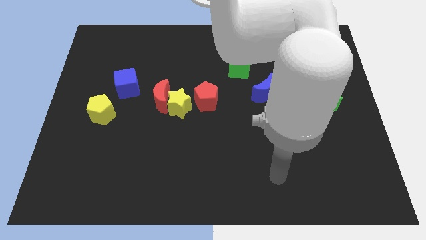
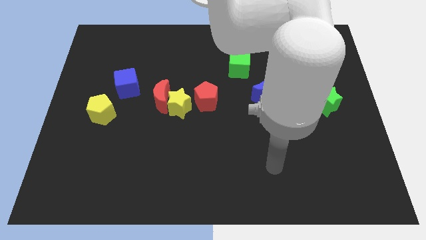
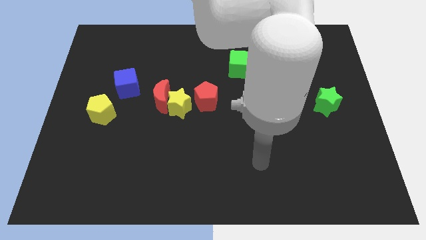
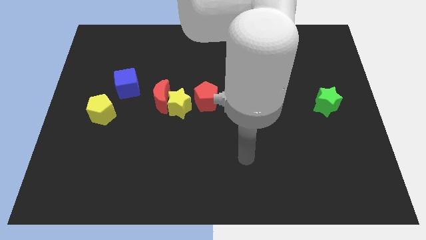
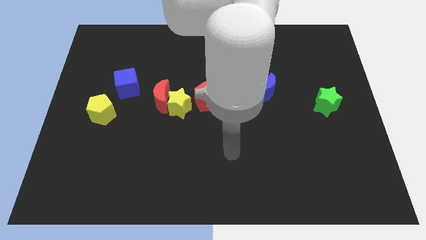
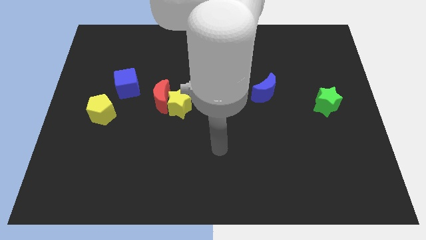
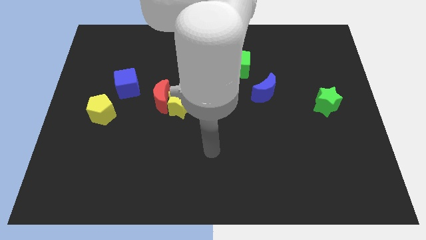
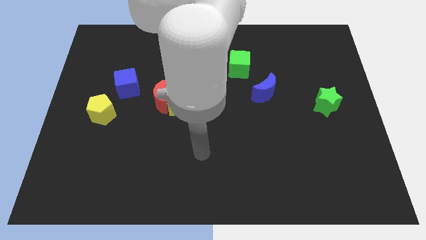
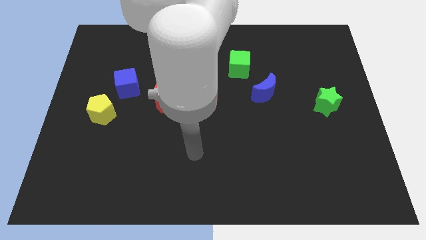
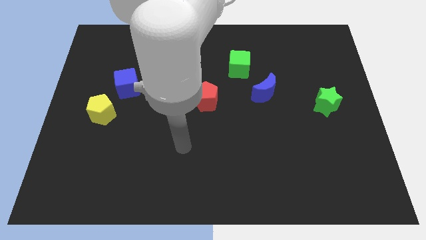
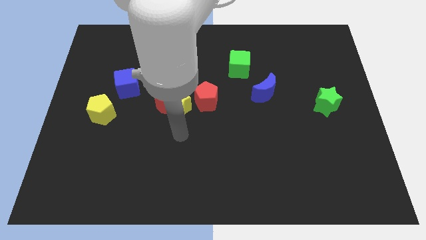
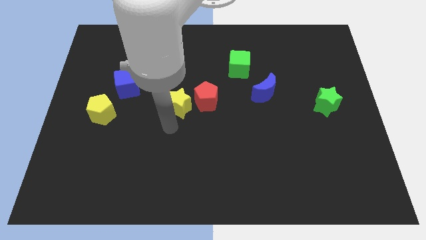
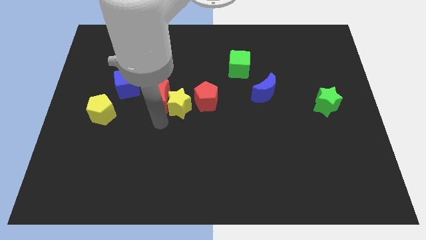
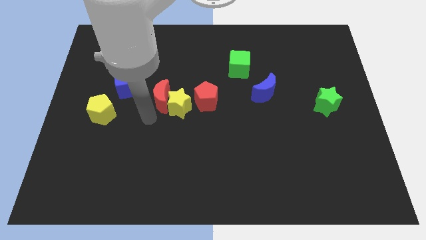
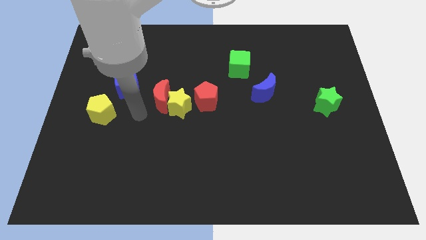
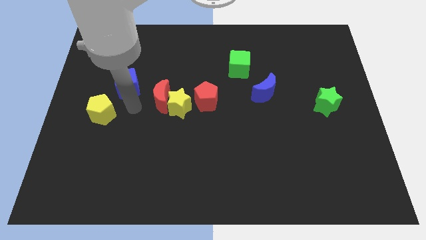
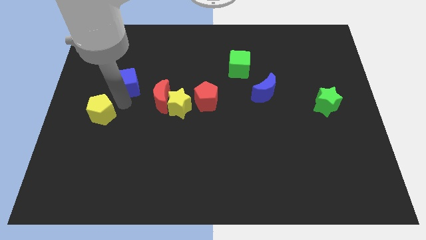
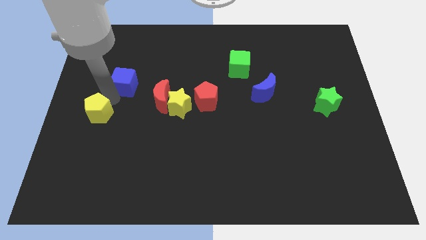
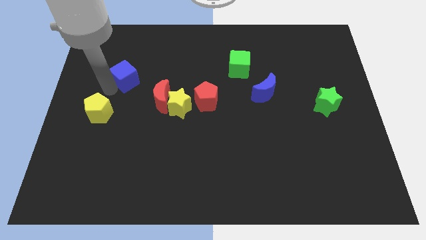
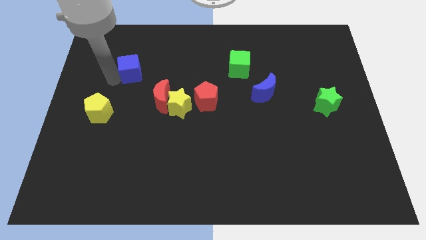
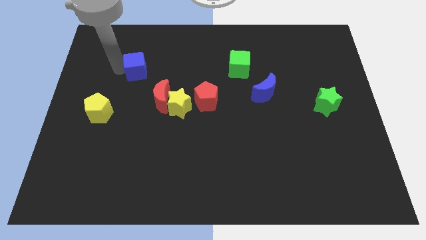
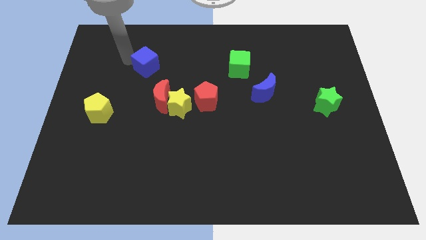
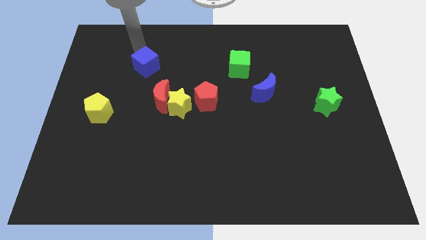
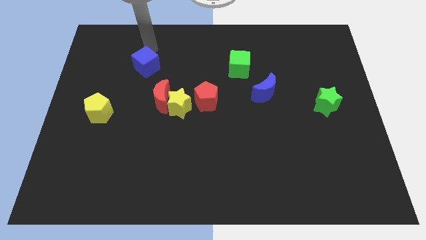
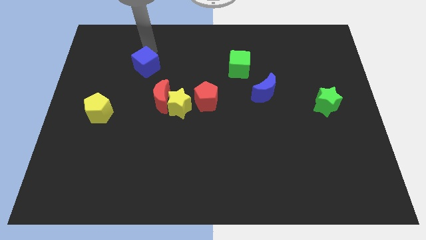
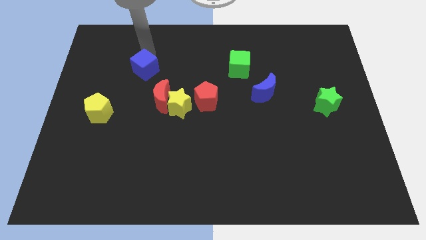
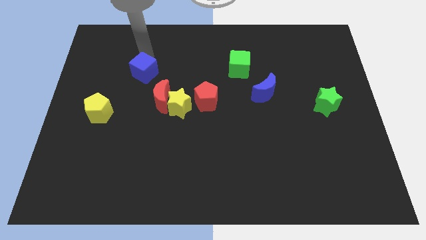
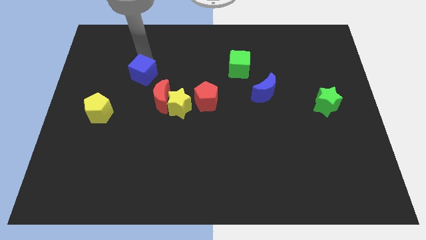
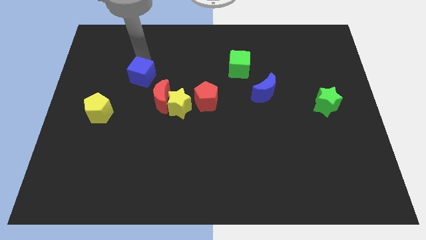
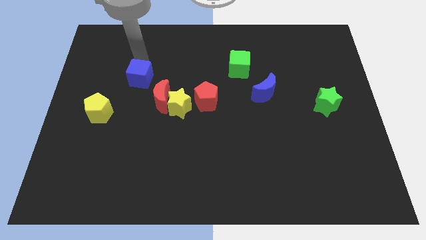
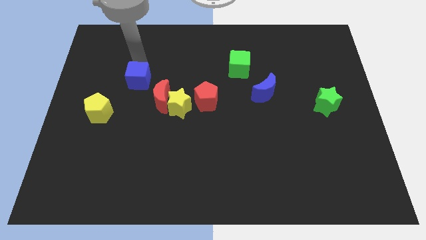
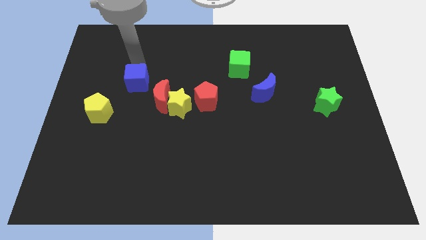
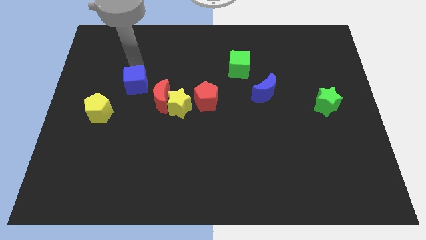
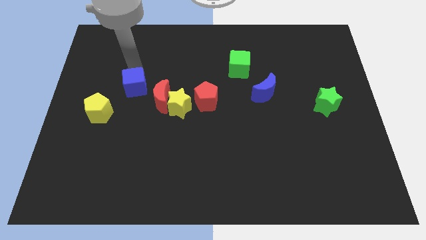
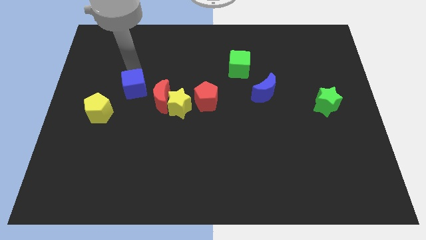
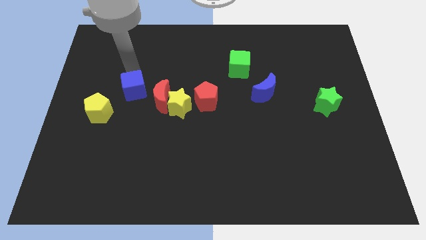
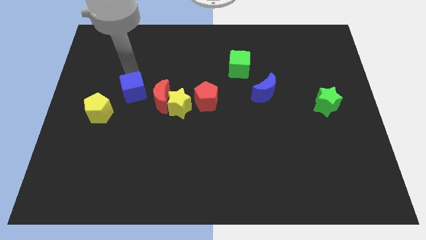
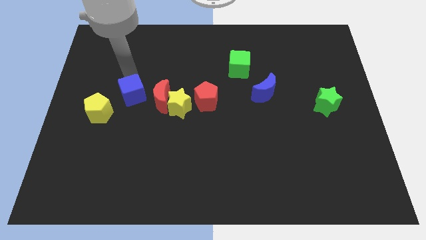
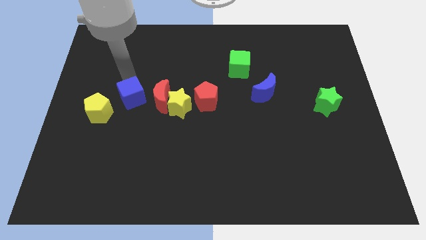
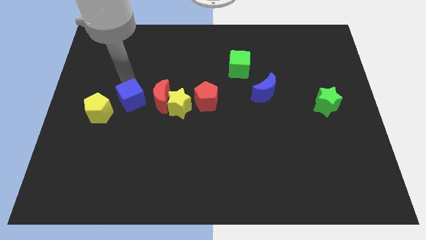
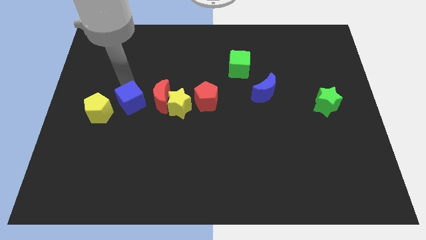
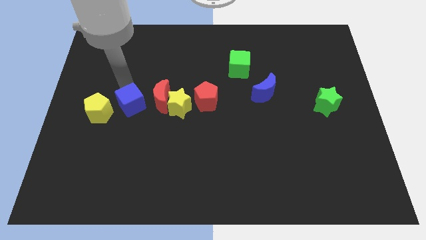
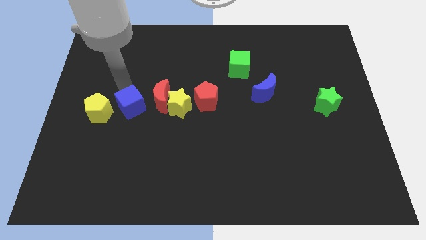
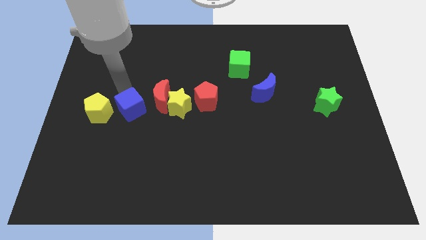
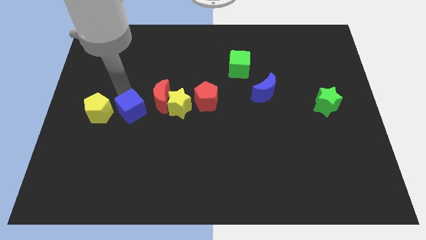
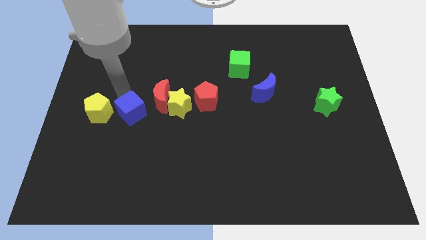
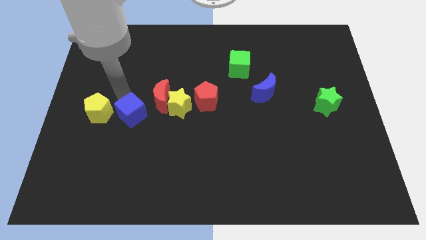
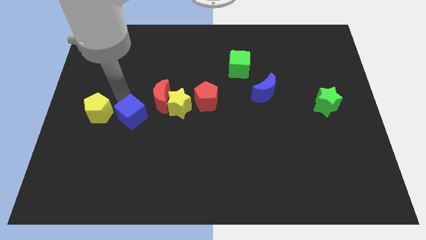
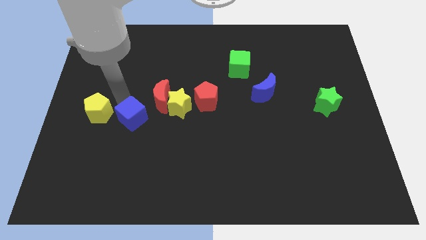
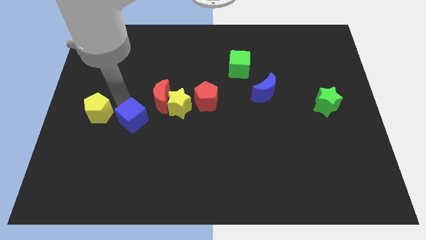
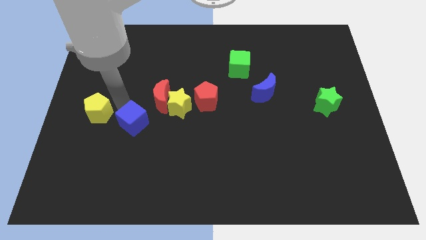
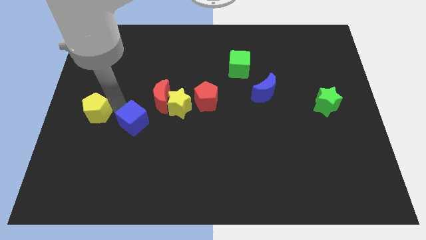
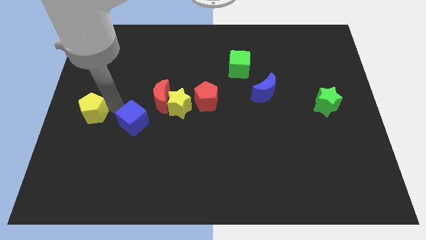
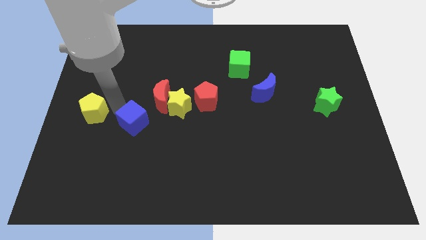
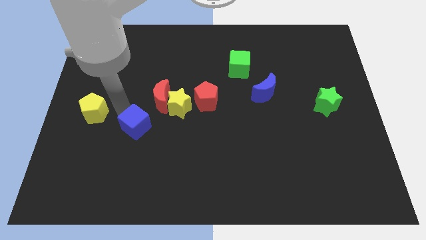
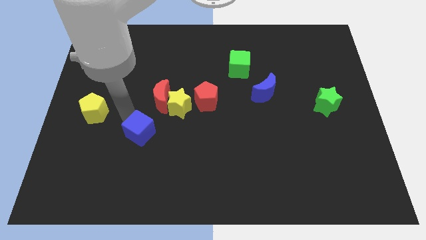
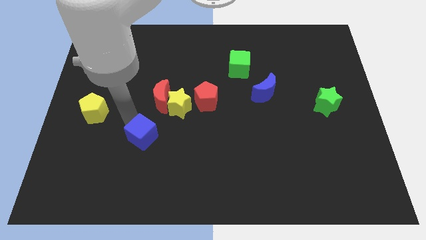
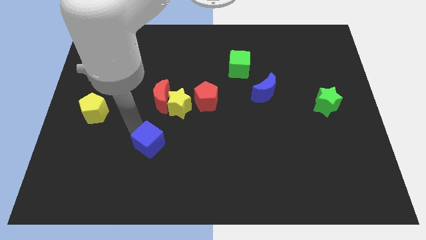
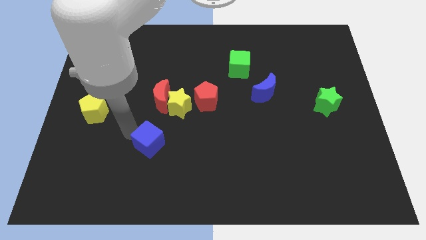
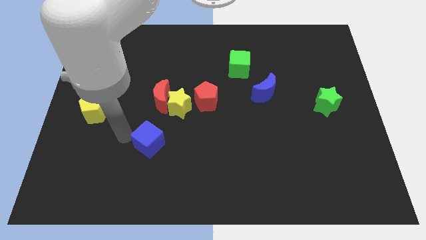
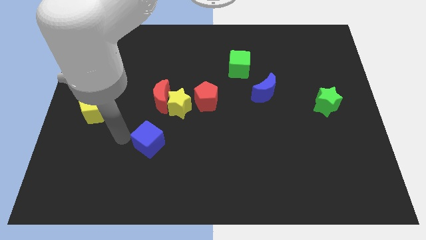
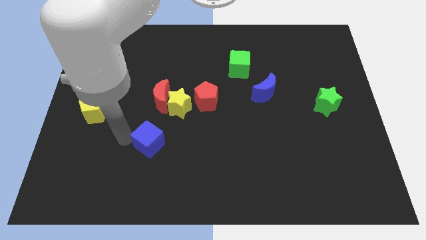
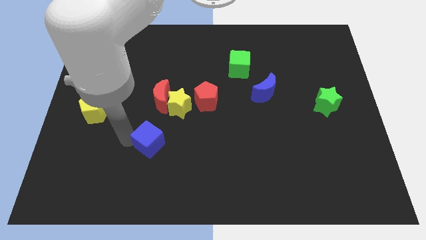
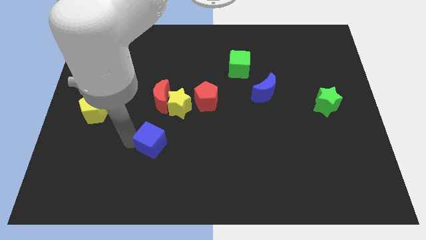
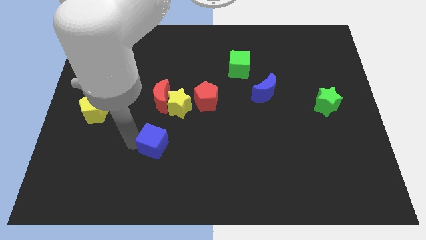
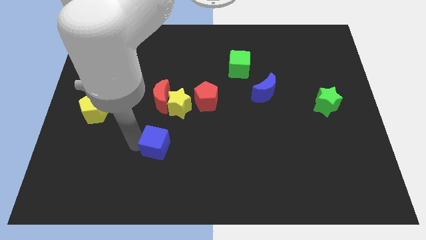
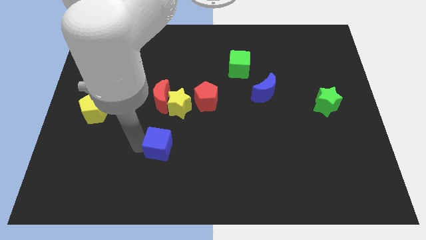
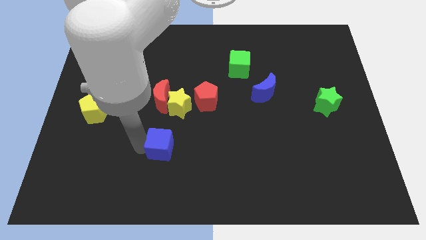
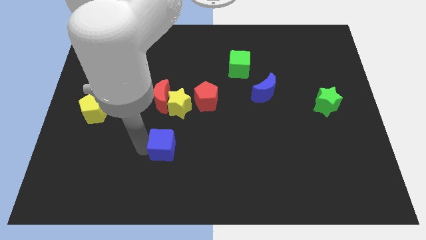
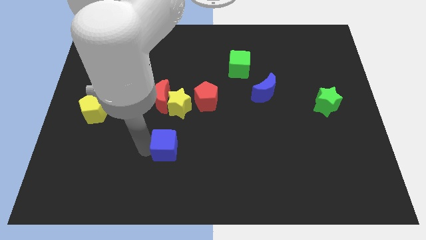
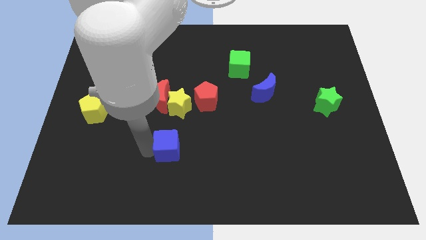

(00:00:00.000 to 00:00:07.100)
move the blue cube downwards and right diagonally

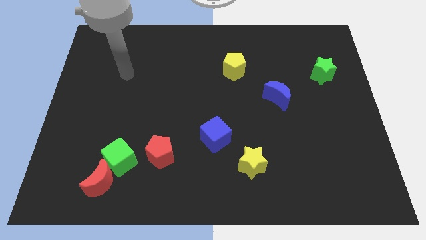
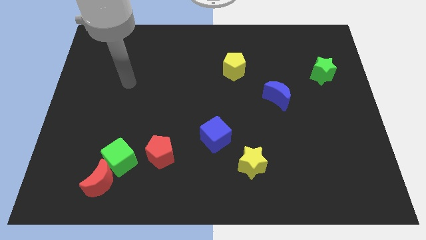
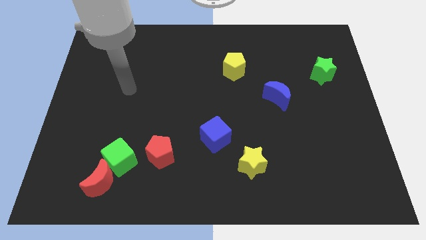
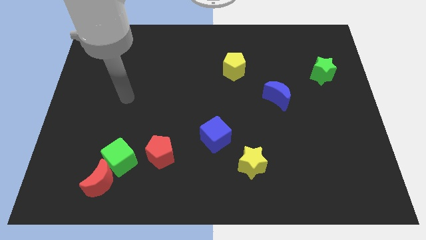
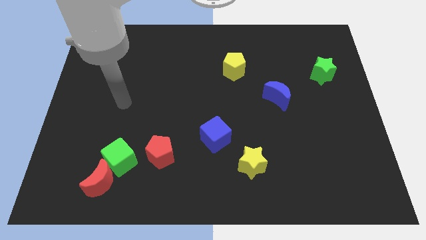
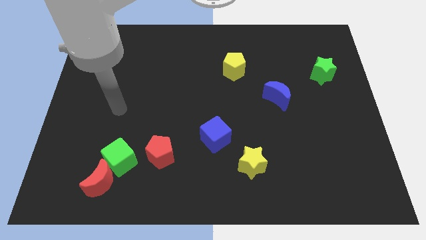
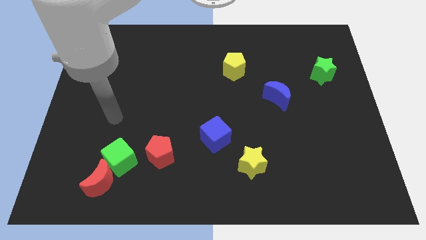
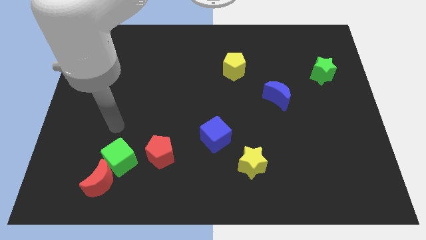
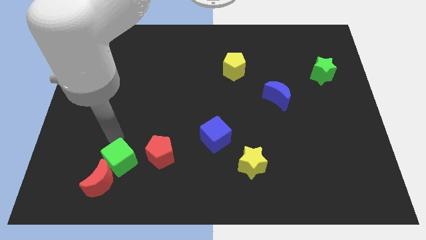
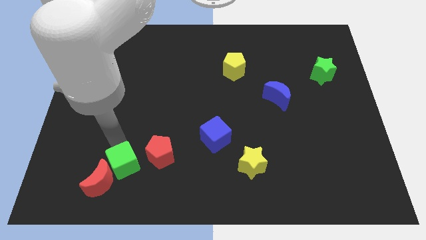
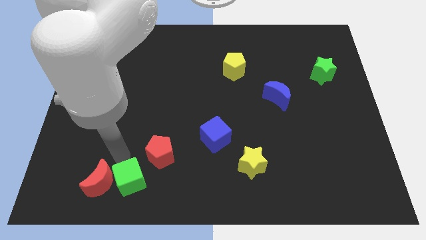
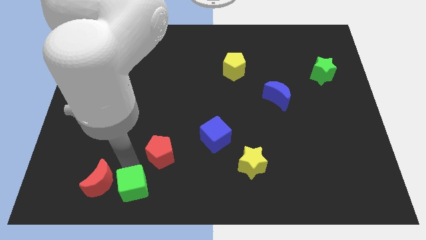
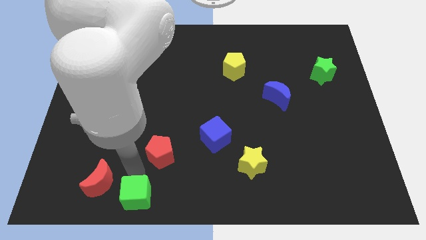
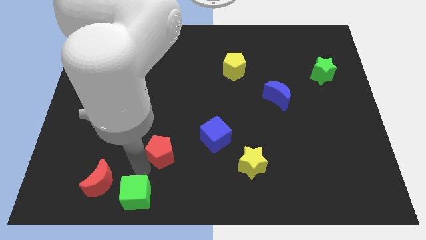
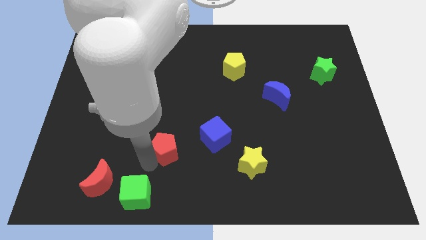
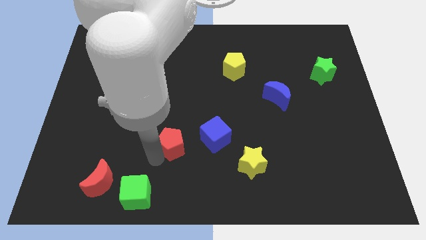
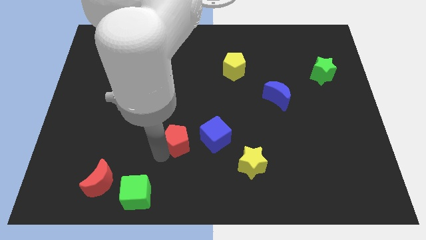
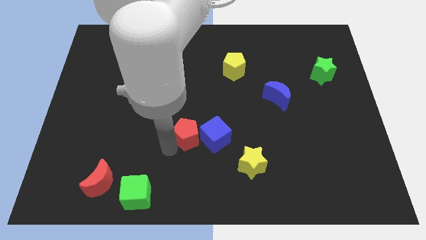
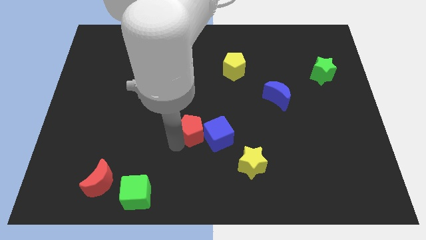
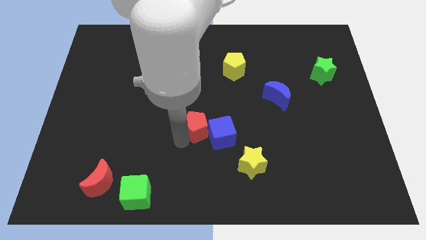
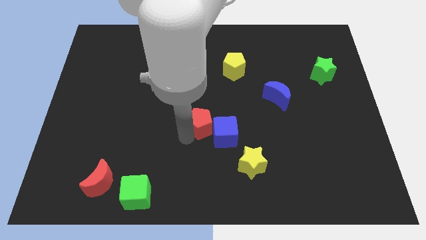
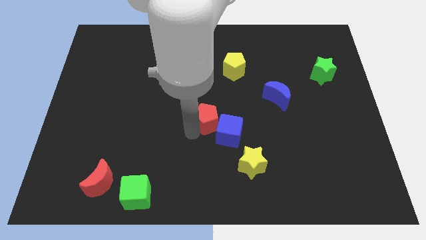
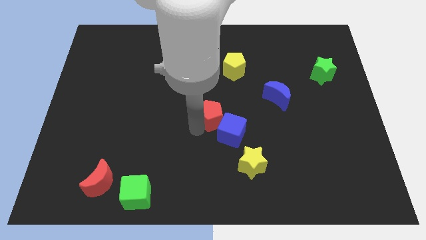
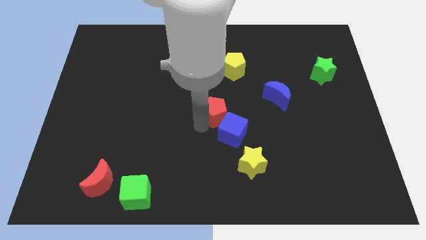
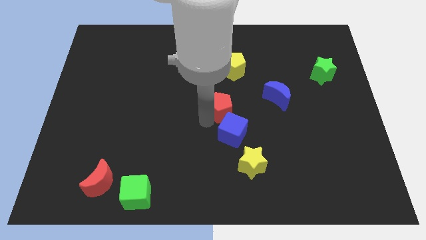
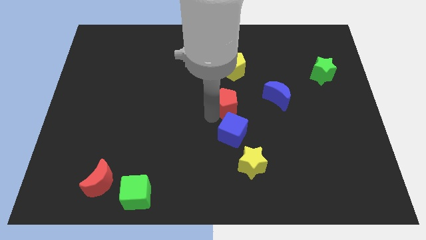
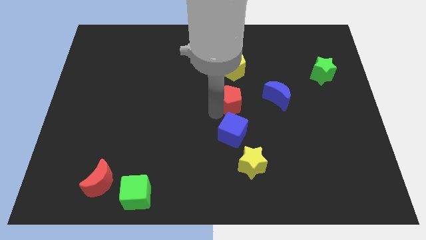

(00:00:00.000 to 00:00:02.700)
move the red pentagon upwards and to the right
